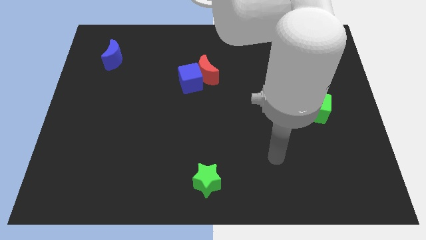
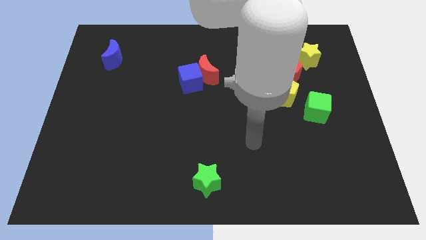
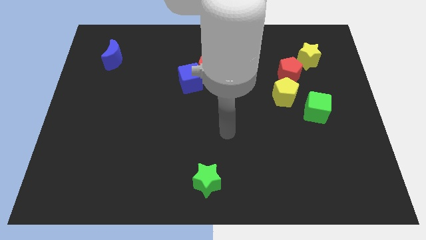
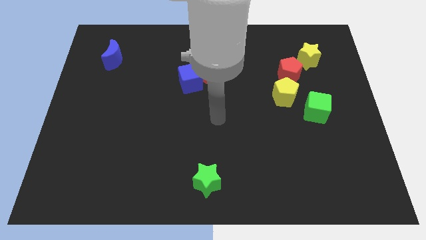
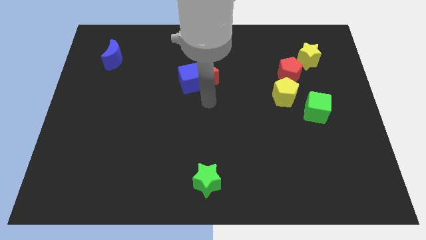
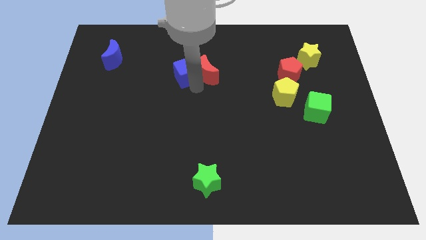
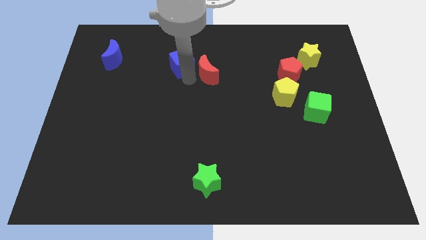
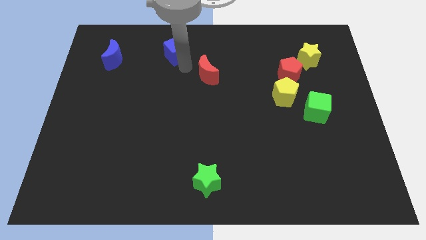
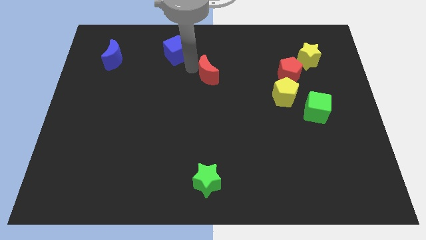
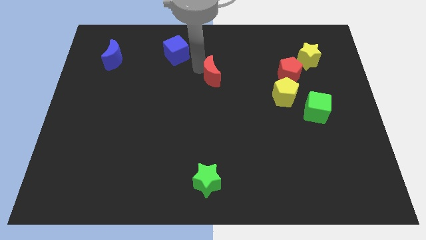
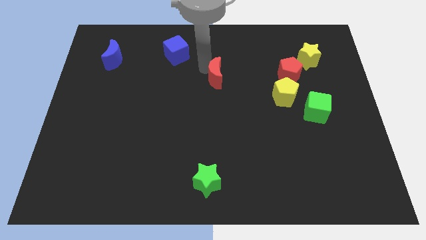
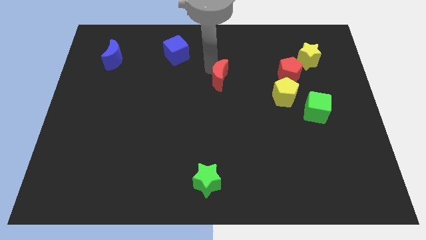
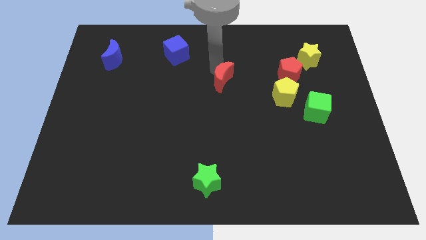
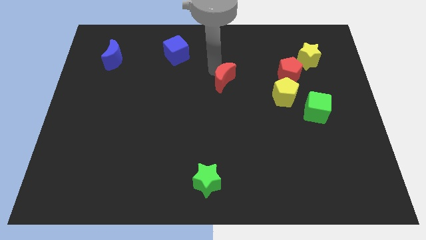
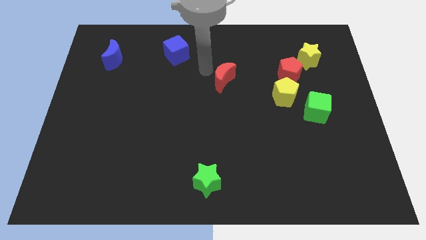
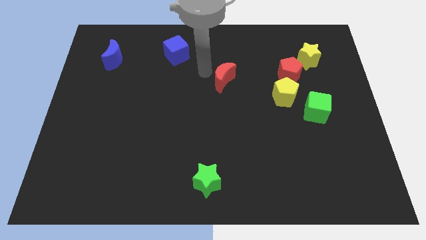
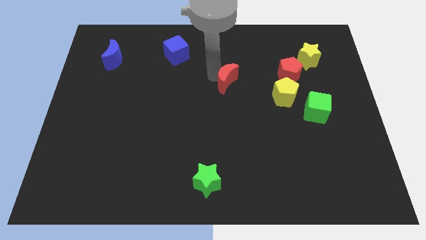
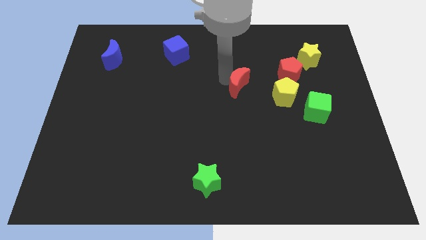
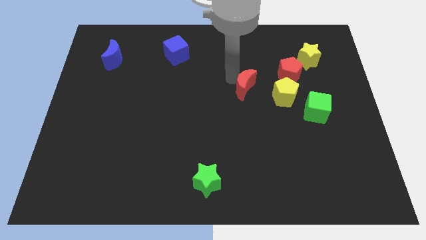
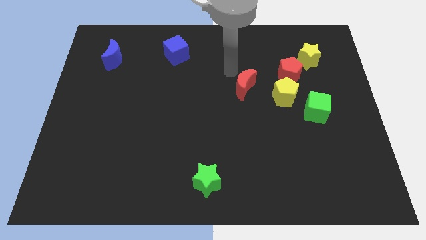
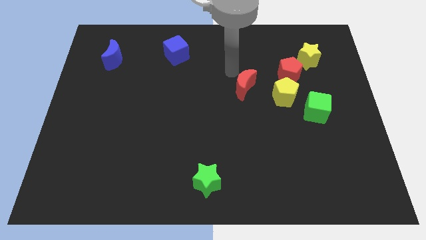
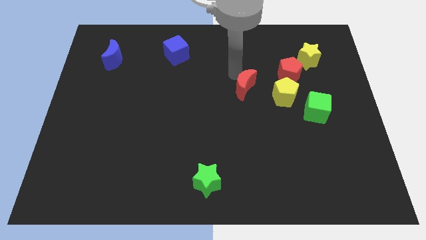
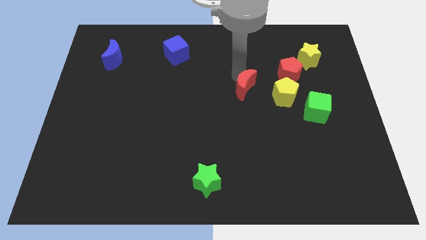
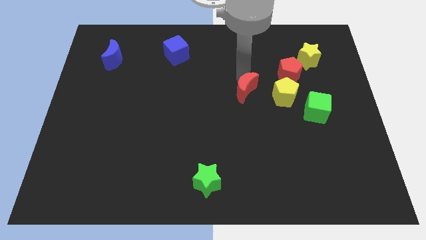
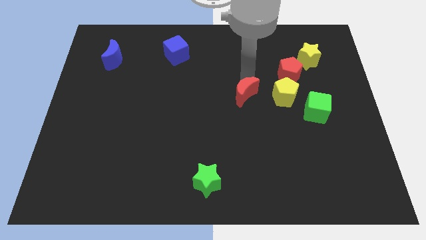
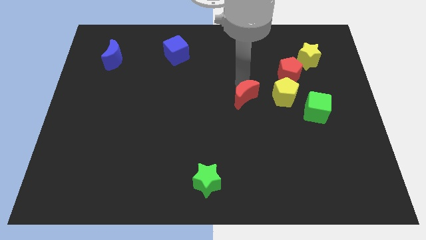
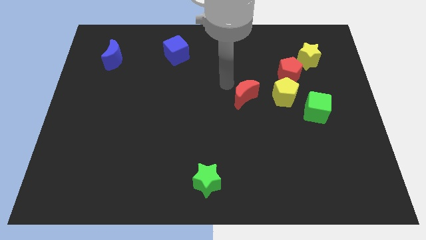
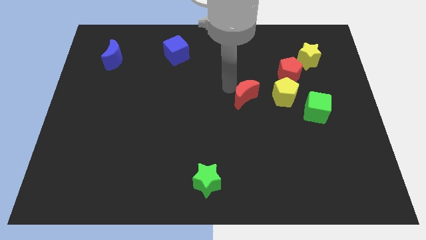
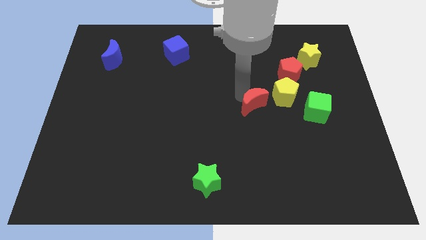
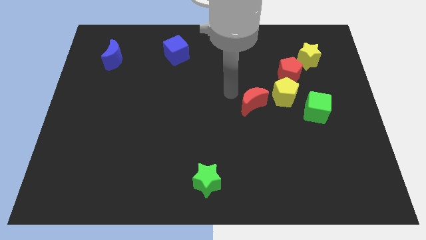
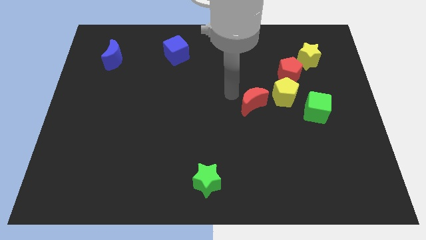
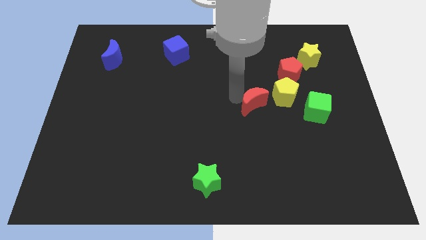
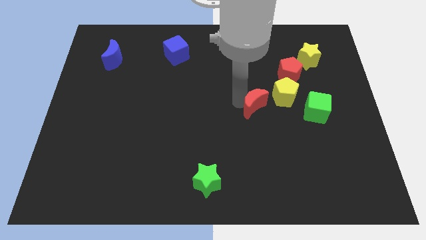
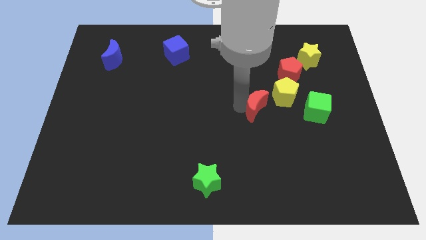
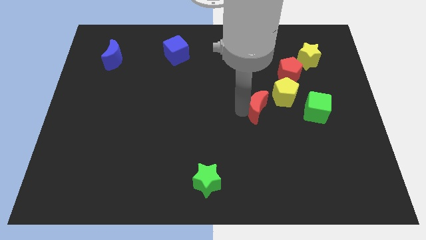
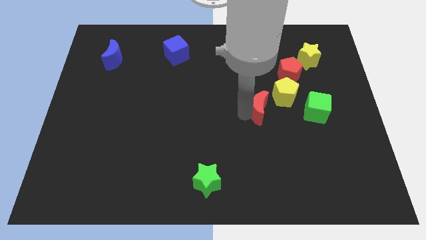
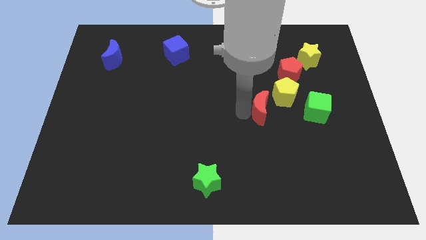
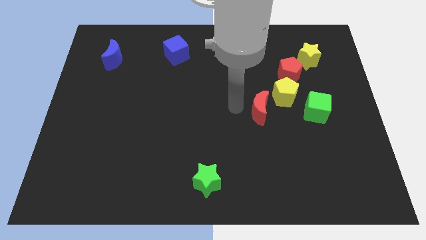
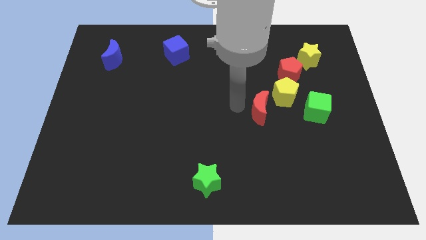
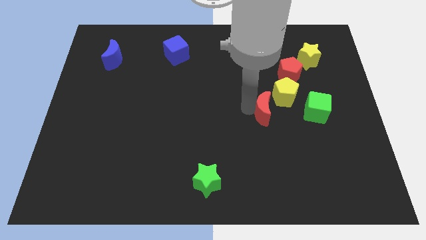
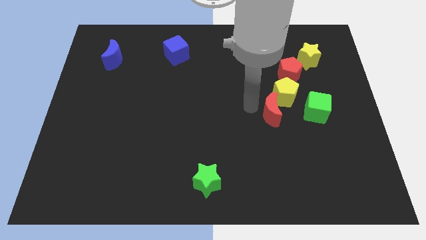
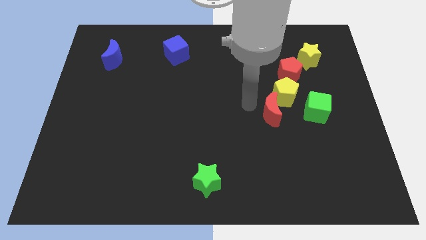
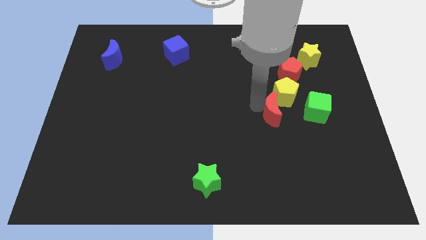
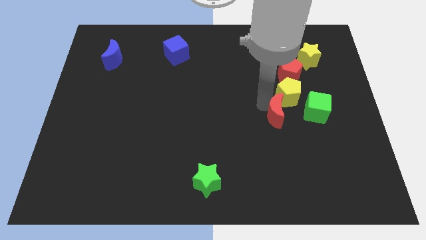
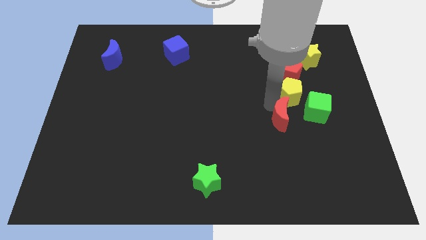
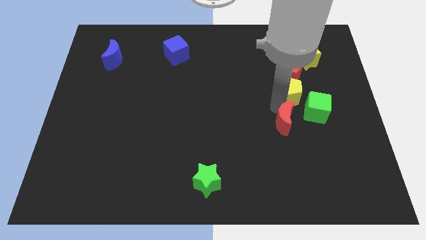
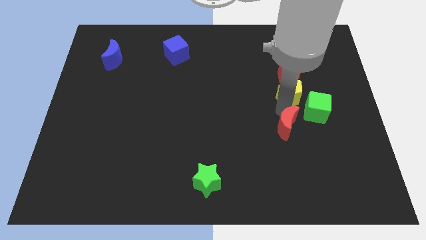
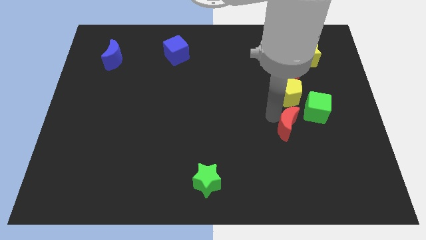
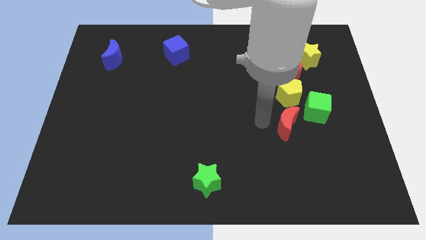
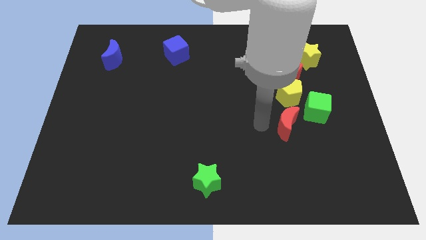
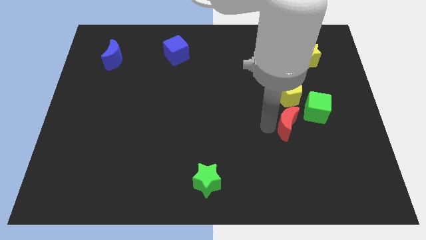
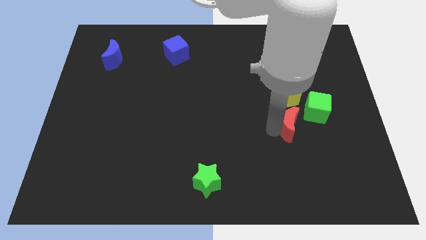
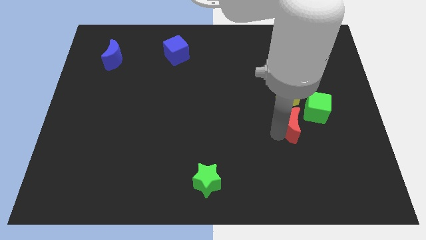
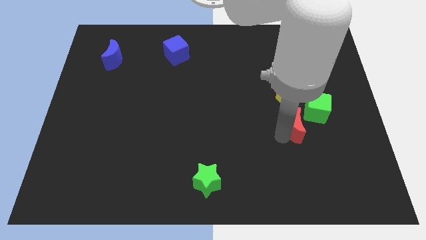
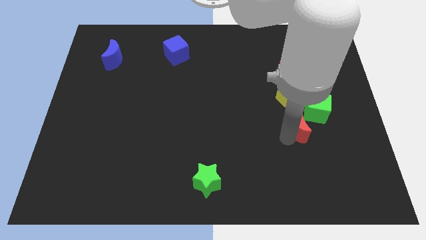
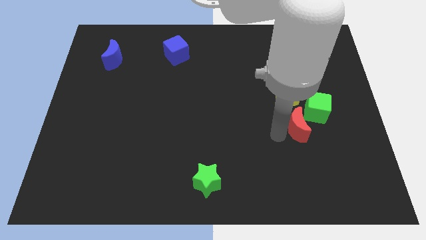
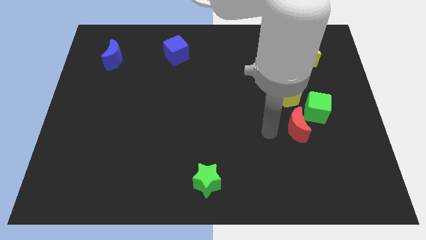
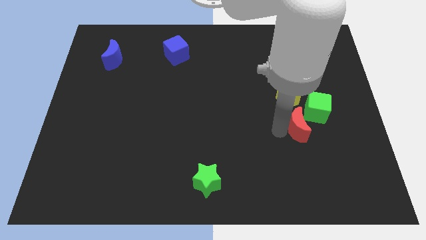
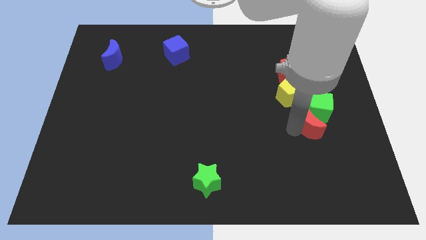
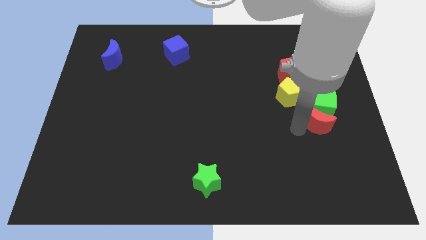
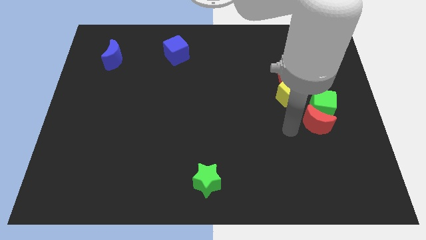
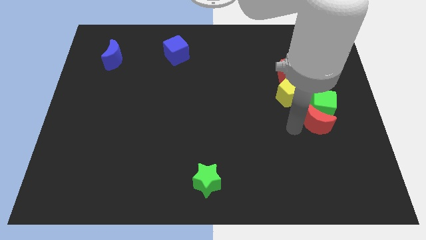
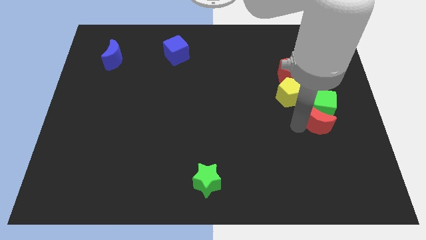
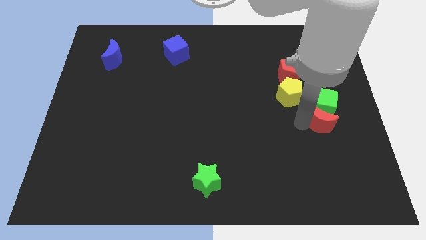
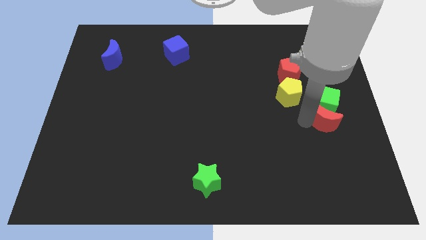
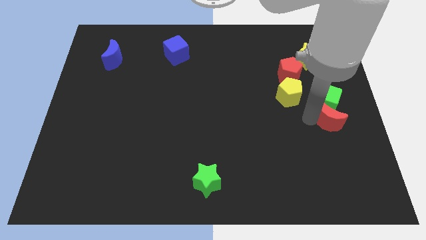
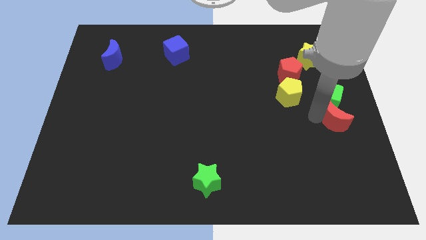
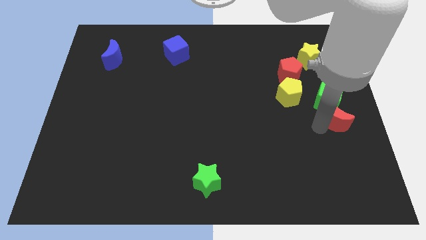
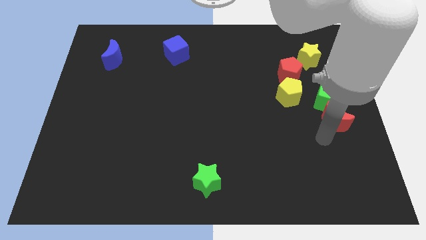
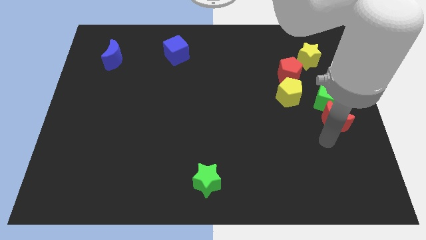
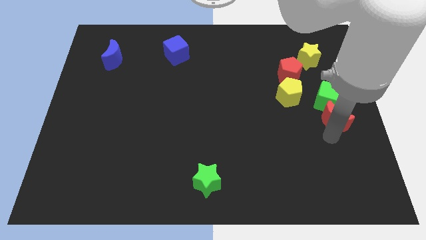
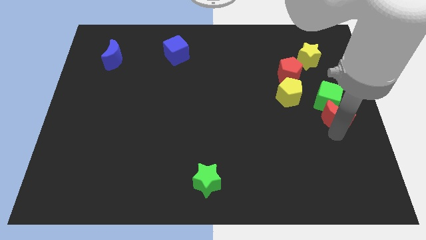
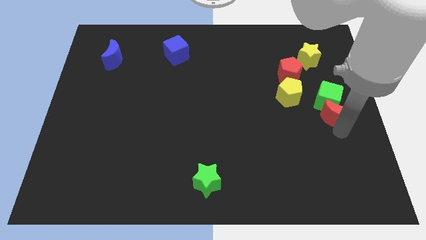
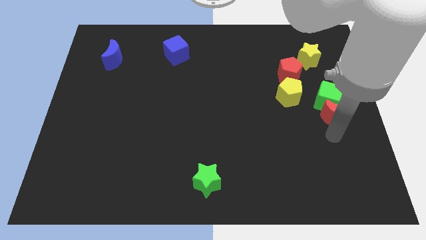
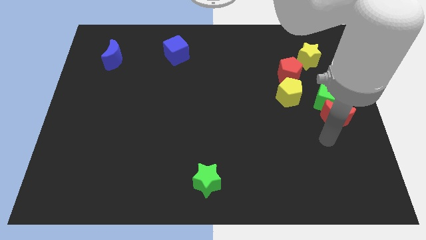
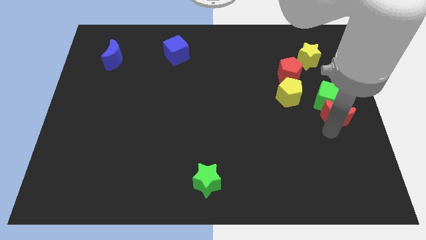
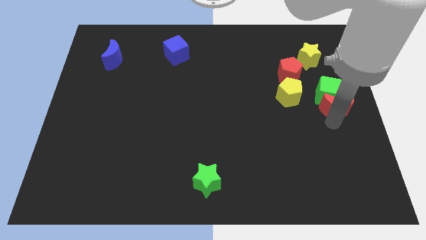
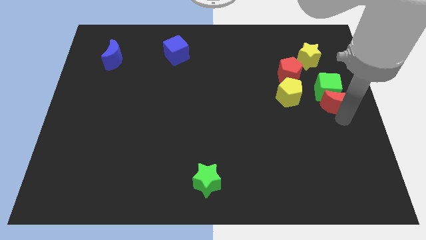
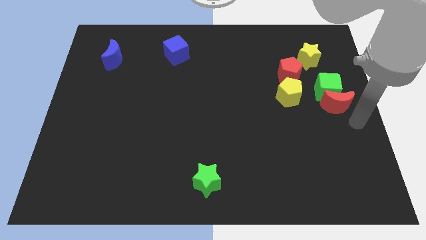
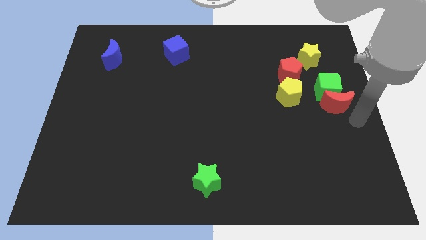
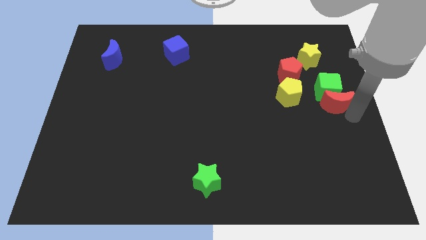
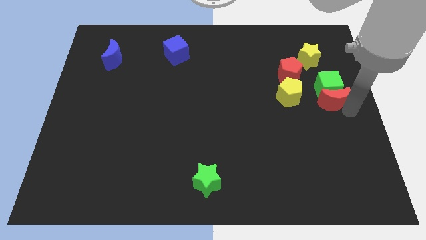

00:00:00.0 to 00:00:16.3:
slide the red moon below the yellow star
